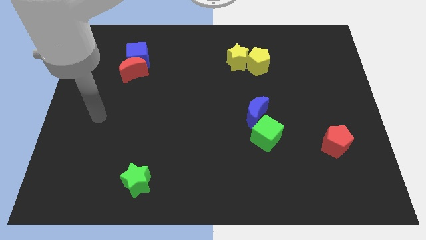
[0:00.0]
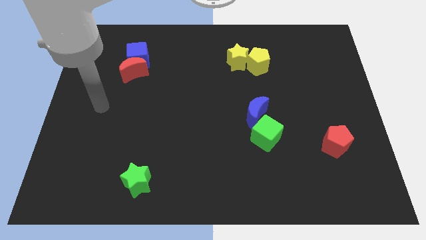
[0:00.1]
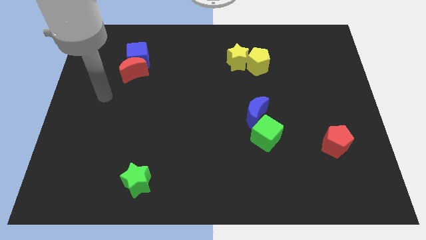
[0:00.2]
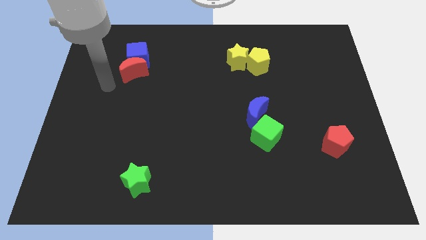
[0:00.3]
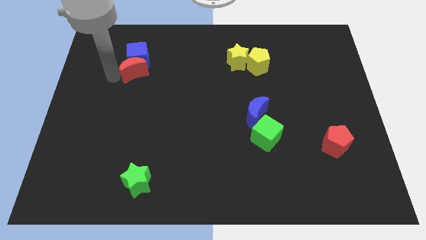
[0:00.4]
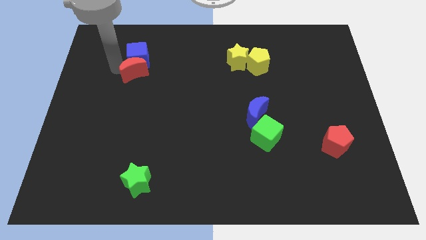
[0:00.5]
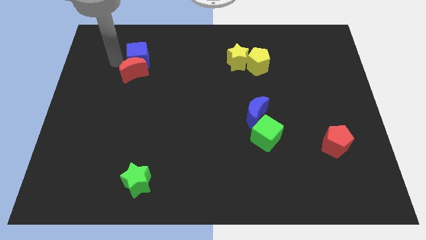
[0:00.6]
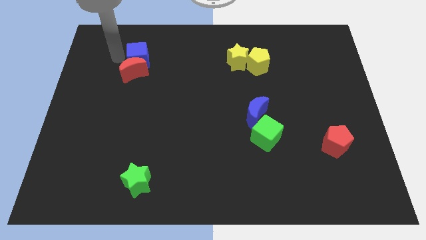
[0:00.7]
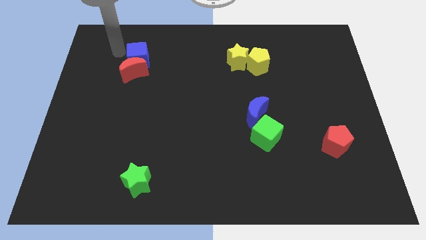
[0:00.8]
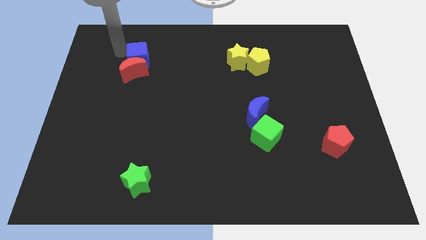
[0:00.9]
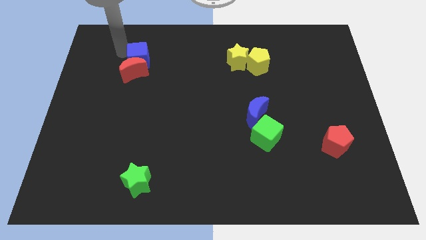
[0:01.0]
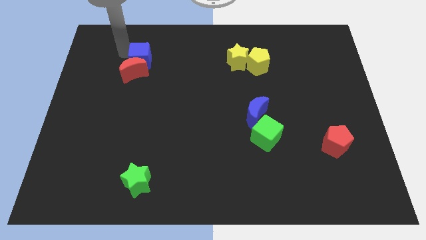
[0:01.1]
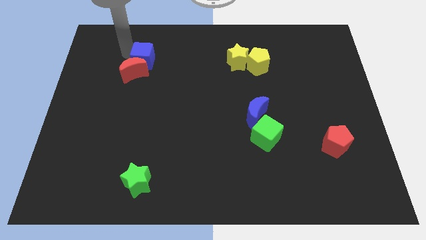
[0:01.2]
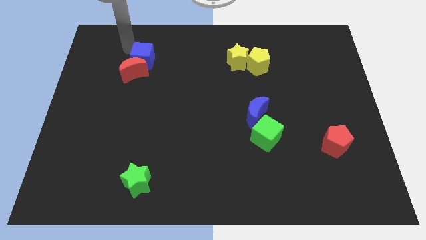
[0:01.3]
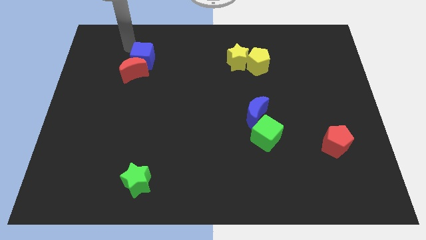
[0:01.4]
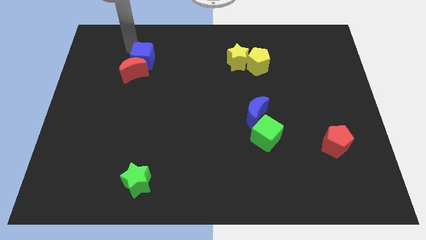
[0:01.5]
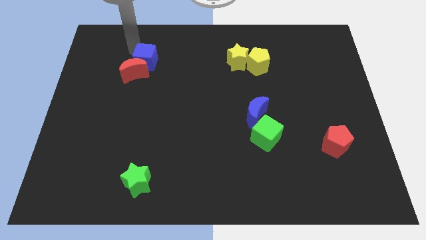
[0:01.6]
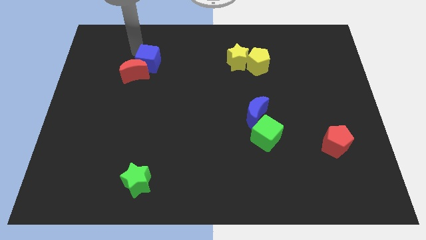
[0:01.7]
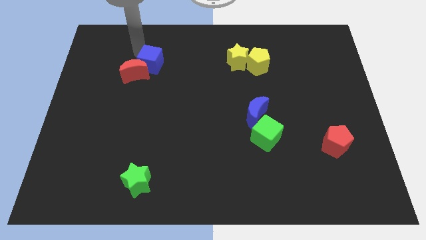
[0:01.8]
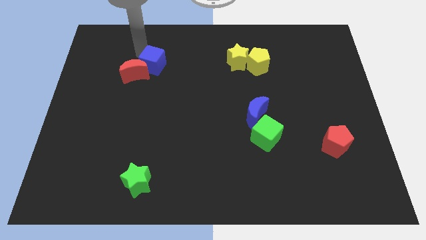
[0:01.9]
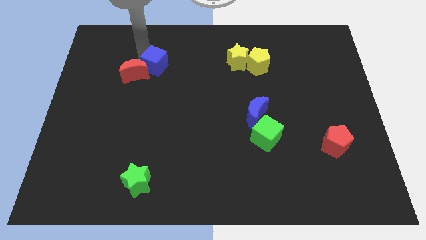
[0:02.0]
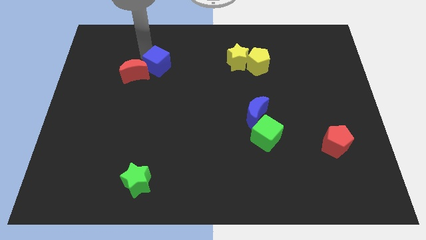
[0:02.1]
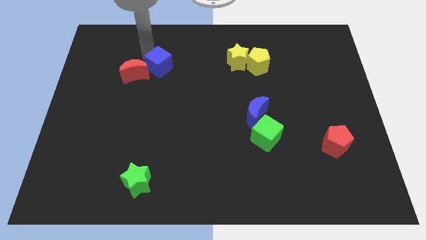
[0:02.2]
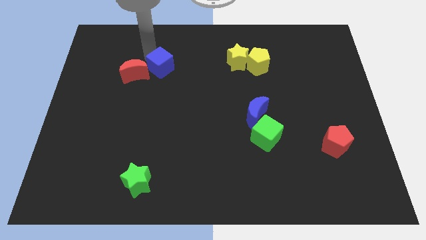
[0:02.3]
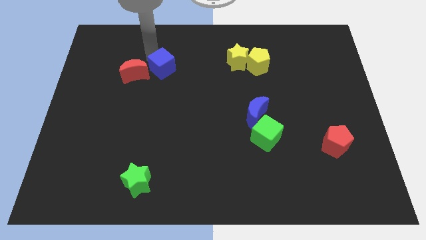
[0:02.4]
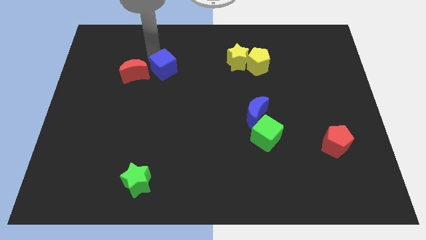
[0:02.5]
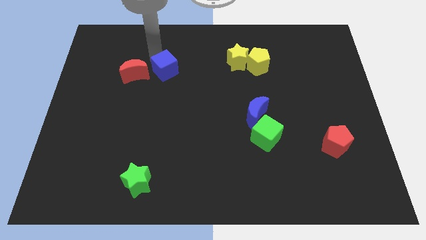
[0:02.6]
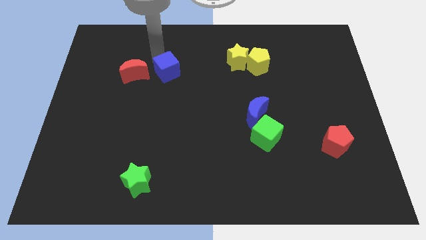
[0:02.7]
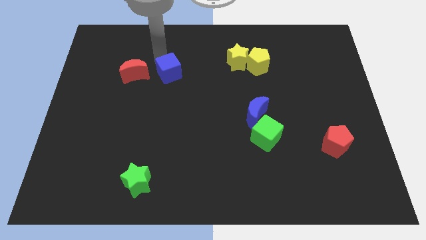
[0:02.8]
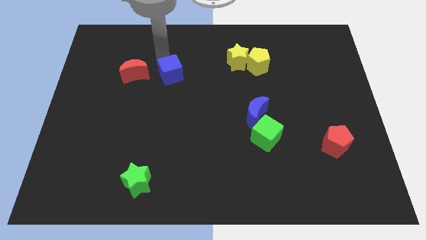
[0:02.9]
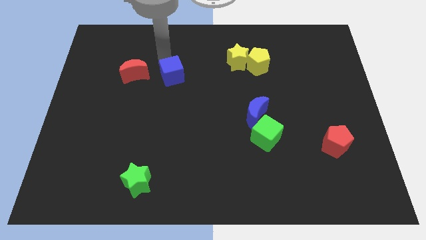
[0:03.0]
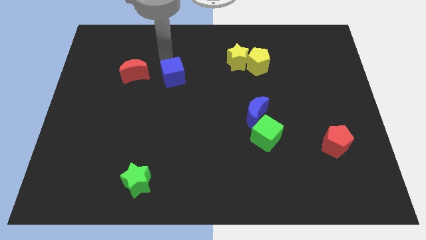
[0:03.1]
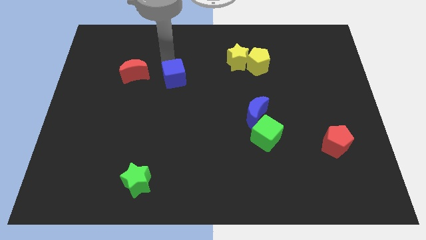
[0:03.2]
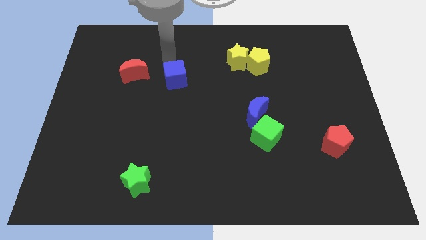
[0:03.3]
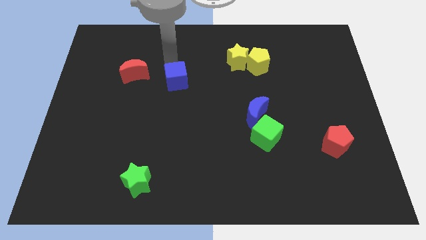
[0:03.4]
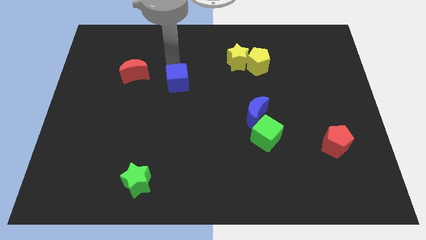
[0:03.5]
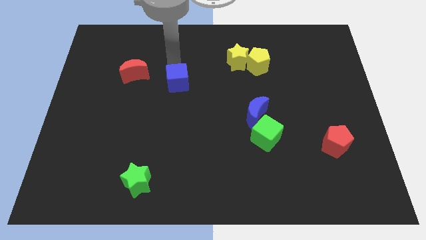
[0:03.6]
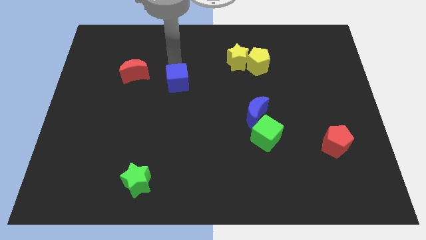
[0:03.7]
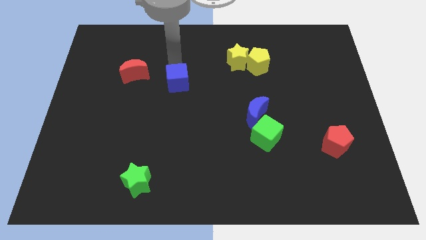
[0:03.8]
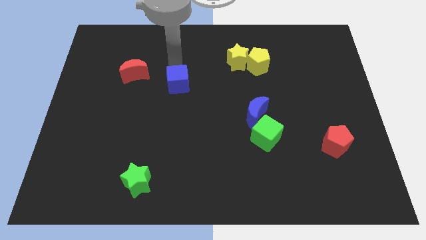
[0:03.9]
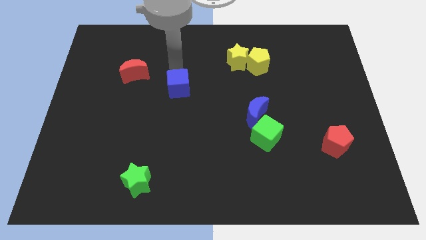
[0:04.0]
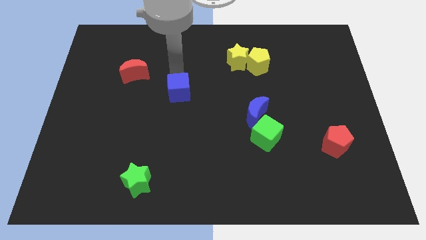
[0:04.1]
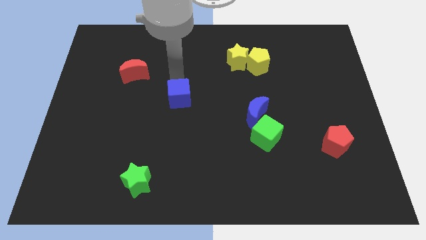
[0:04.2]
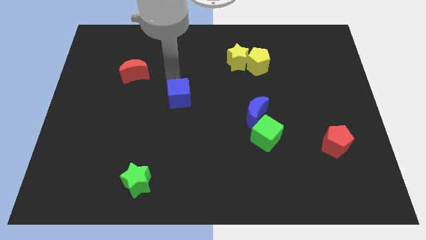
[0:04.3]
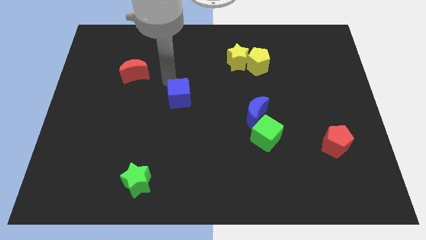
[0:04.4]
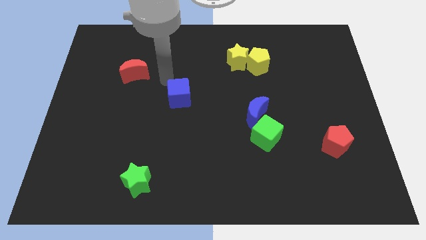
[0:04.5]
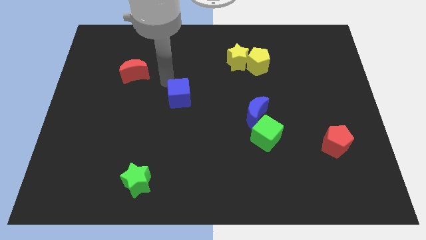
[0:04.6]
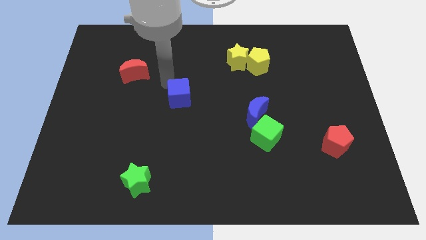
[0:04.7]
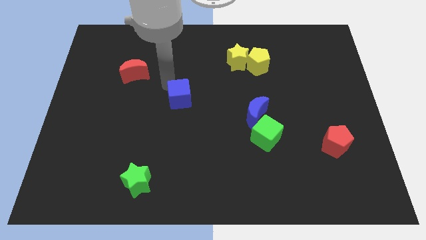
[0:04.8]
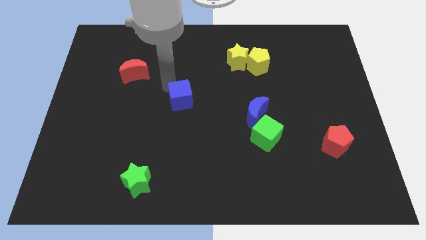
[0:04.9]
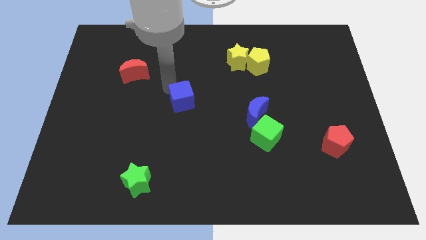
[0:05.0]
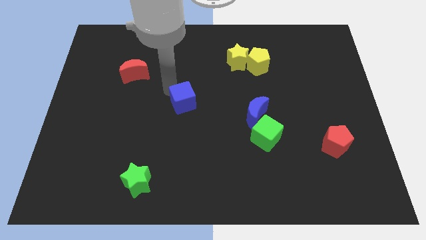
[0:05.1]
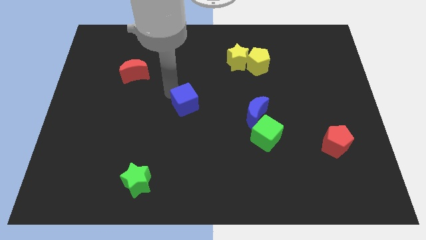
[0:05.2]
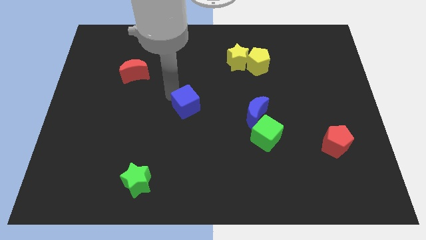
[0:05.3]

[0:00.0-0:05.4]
push the blue cube down and then to the right

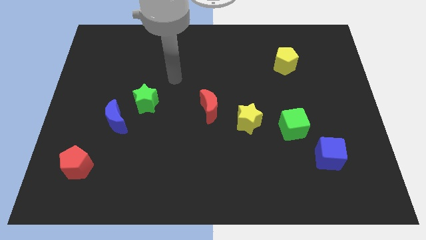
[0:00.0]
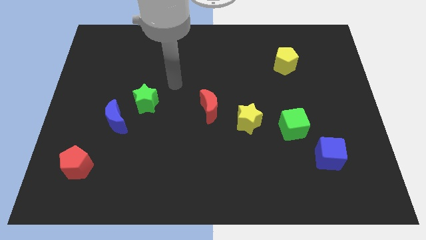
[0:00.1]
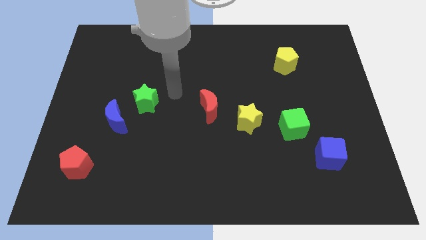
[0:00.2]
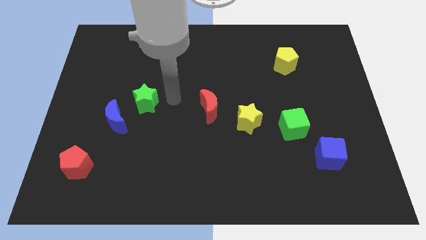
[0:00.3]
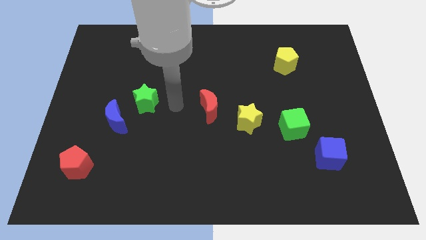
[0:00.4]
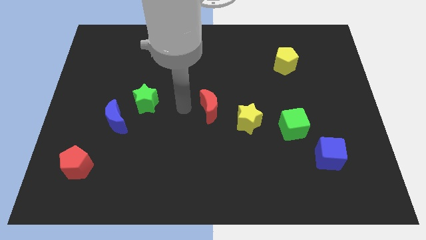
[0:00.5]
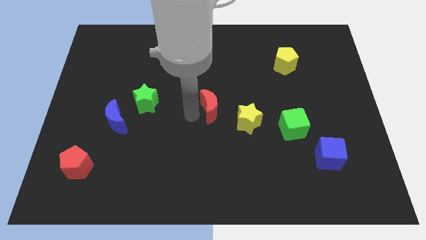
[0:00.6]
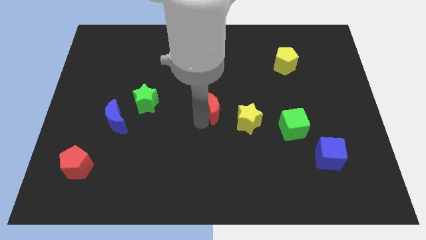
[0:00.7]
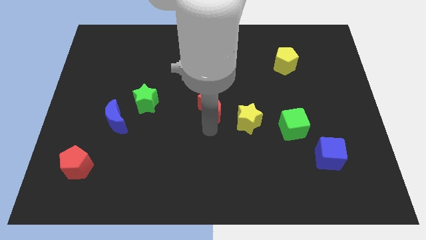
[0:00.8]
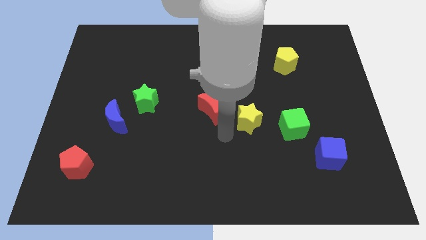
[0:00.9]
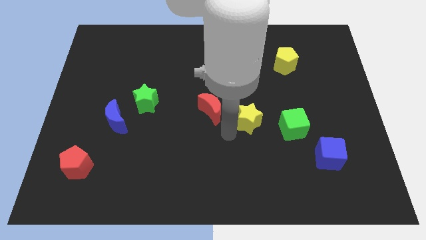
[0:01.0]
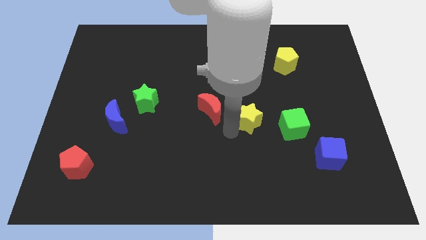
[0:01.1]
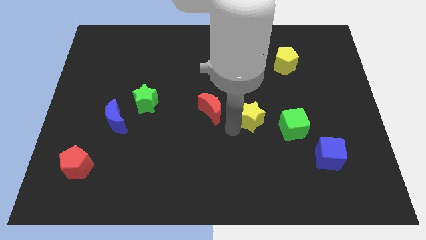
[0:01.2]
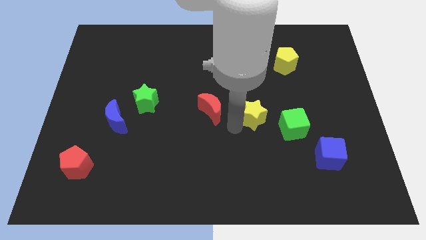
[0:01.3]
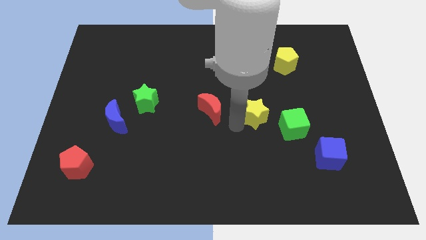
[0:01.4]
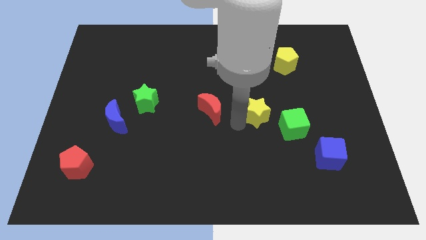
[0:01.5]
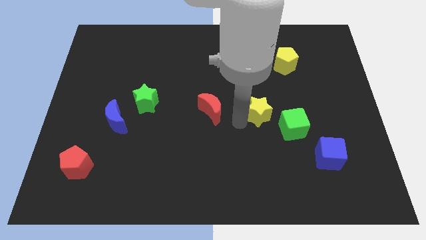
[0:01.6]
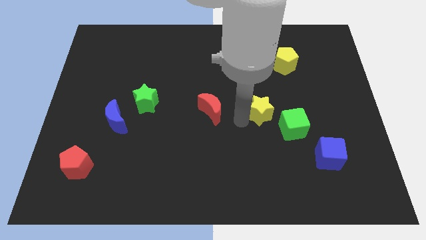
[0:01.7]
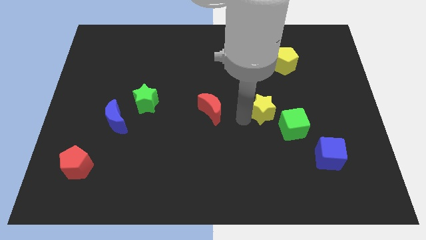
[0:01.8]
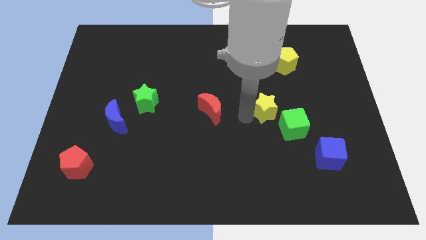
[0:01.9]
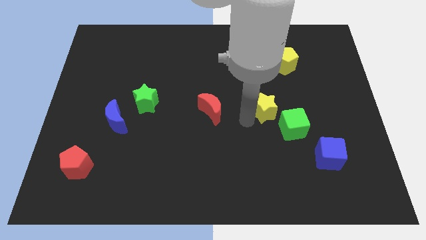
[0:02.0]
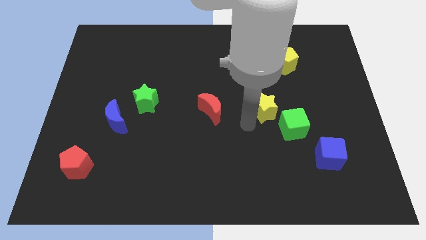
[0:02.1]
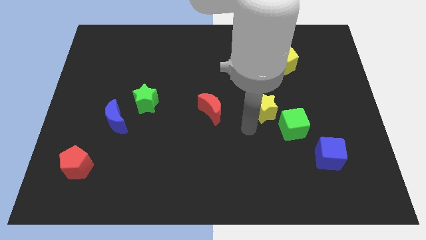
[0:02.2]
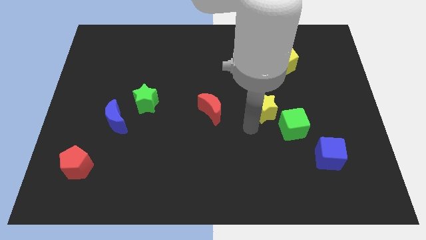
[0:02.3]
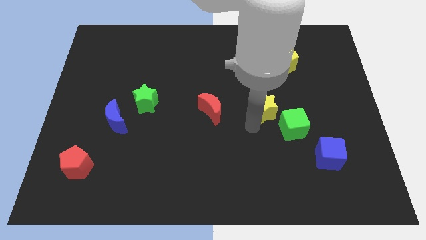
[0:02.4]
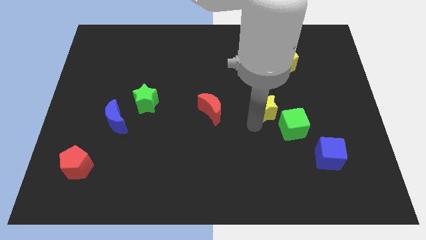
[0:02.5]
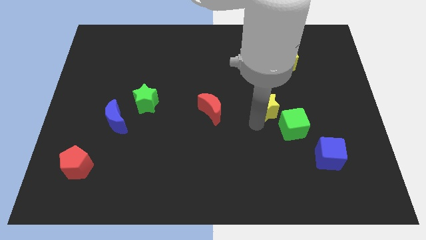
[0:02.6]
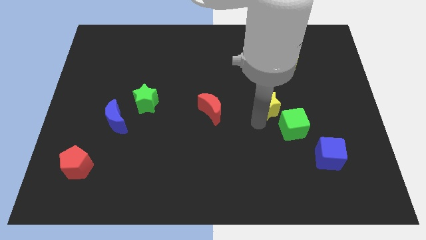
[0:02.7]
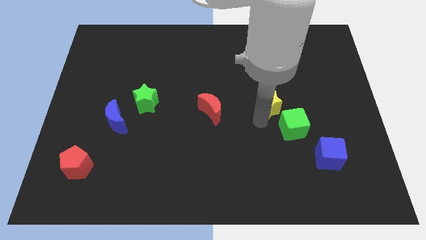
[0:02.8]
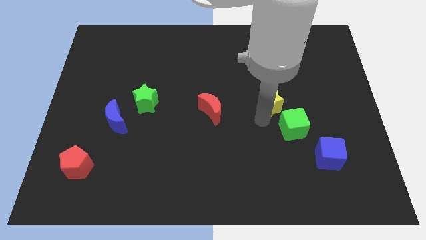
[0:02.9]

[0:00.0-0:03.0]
slide the yellow star up and then right somewhat
